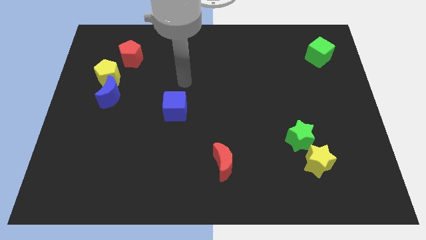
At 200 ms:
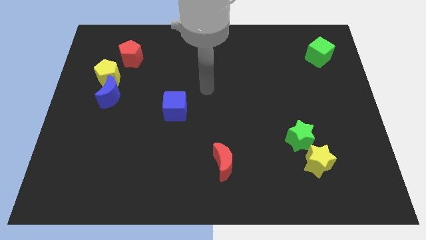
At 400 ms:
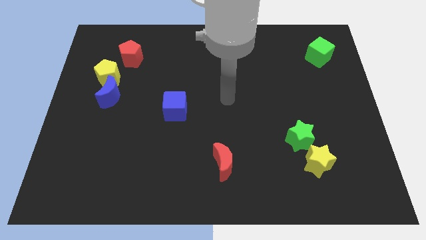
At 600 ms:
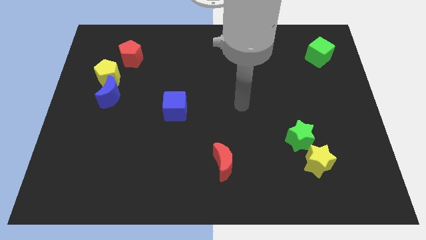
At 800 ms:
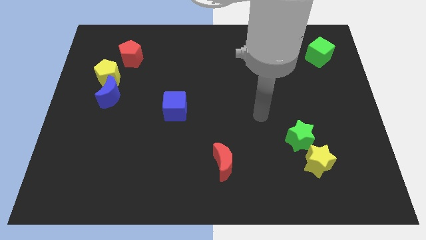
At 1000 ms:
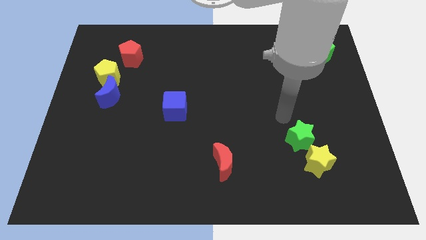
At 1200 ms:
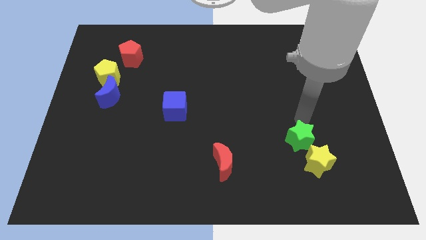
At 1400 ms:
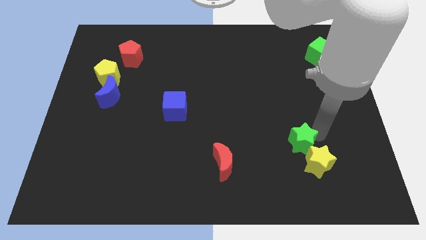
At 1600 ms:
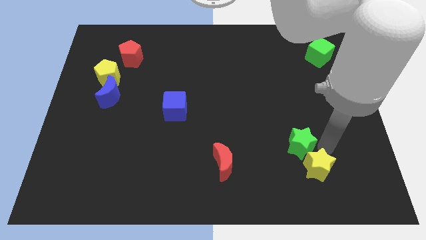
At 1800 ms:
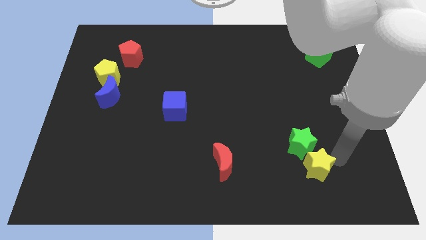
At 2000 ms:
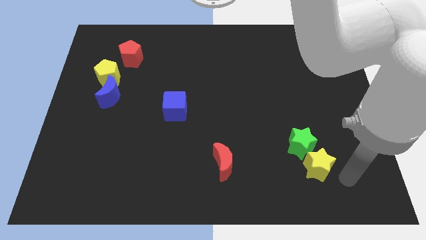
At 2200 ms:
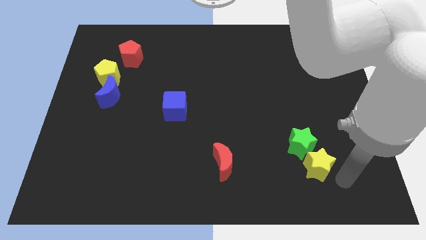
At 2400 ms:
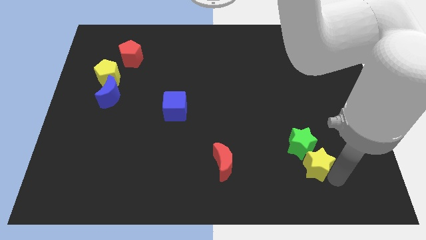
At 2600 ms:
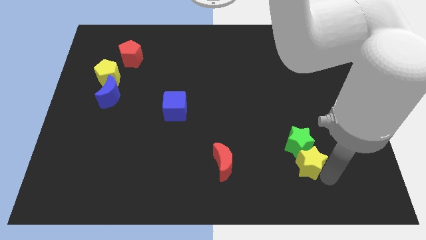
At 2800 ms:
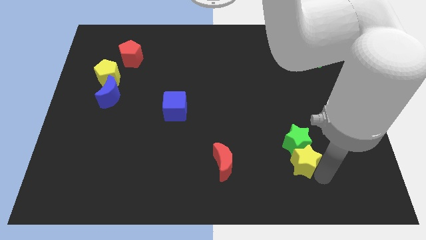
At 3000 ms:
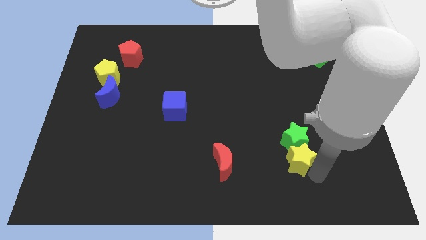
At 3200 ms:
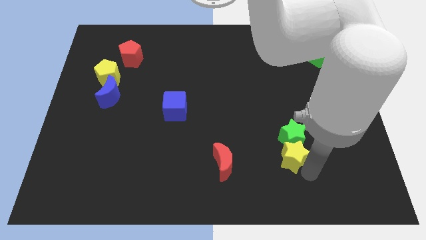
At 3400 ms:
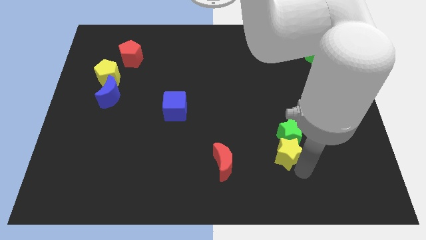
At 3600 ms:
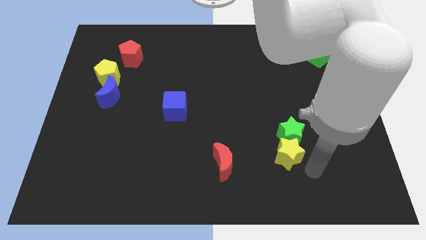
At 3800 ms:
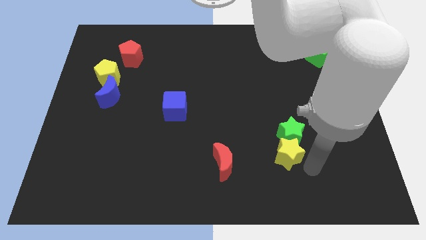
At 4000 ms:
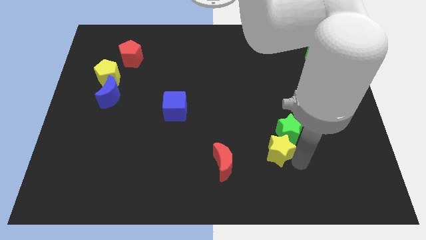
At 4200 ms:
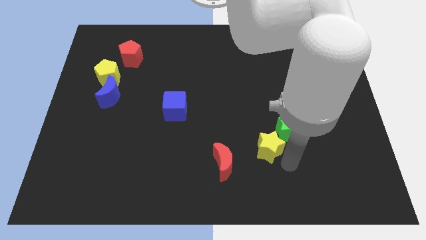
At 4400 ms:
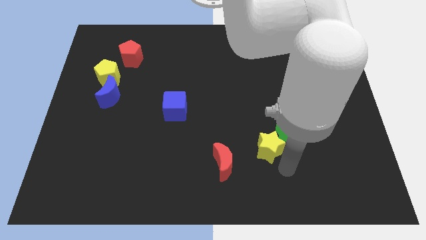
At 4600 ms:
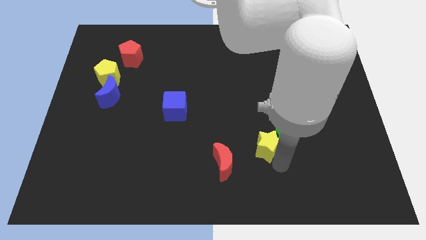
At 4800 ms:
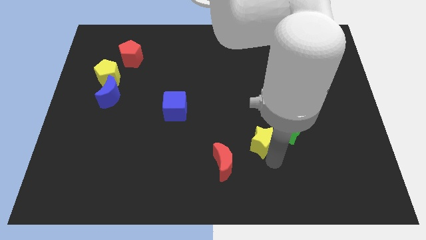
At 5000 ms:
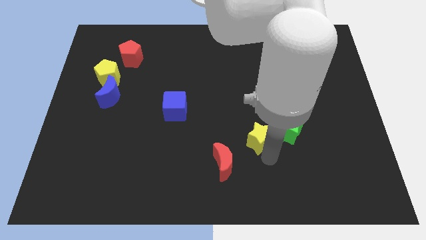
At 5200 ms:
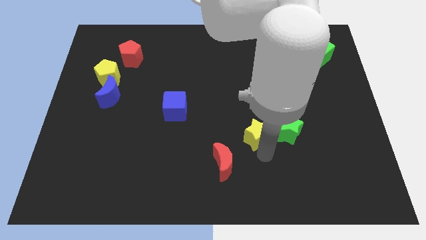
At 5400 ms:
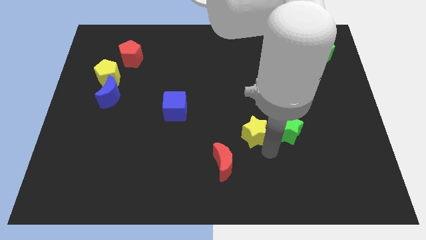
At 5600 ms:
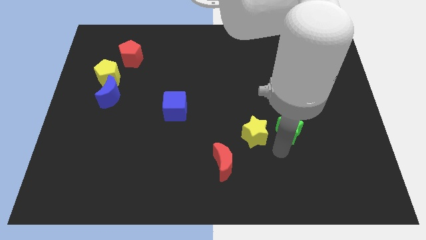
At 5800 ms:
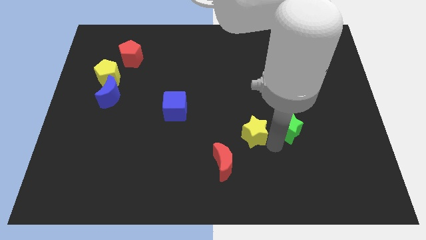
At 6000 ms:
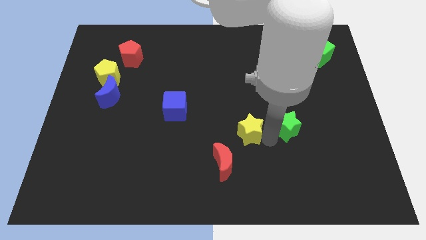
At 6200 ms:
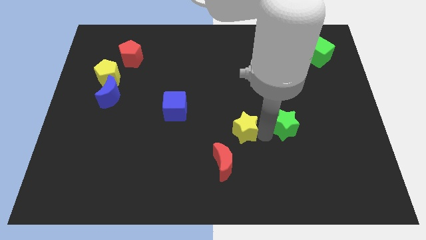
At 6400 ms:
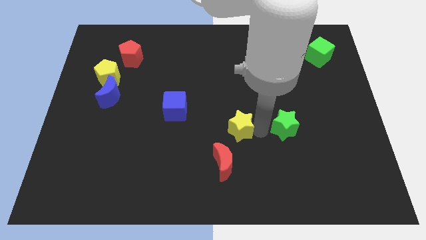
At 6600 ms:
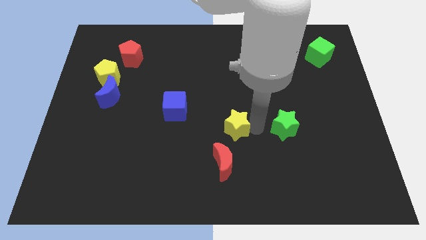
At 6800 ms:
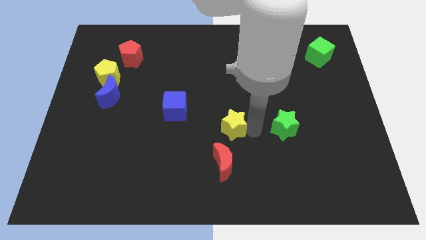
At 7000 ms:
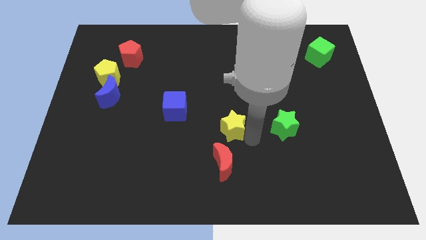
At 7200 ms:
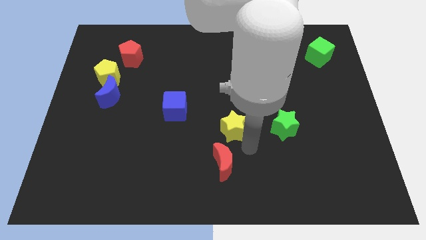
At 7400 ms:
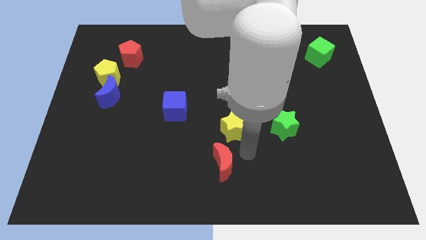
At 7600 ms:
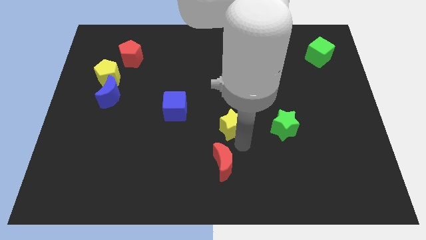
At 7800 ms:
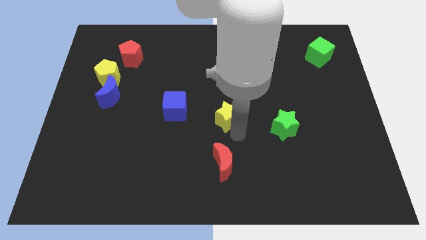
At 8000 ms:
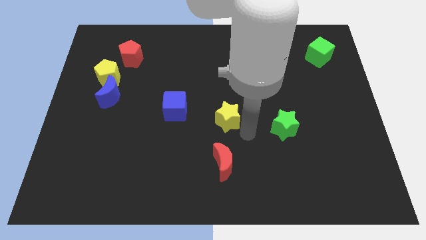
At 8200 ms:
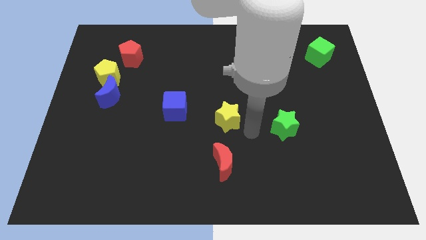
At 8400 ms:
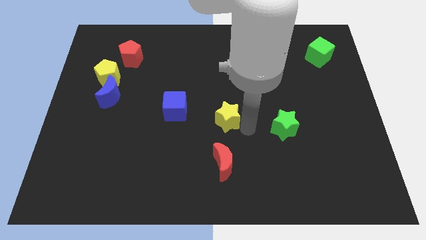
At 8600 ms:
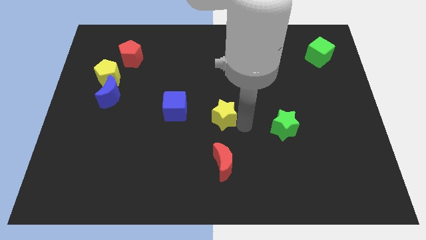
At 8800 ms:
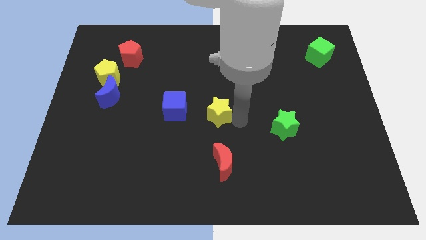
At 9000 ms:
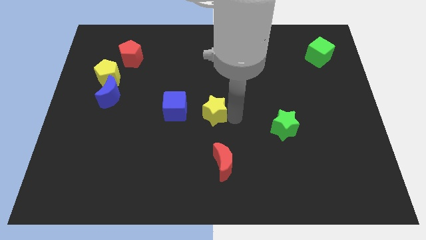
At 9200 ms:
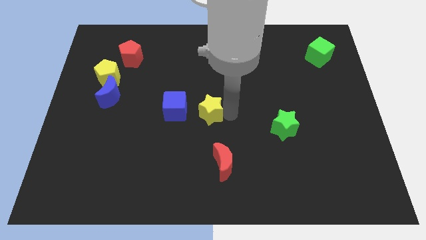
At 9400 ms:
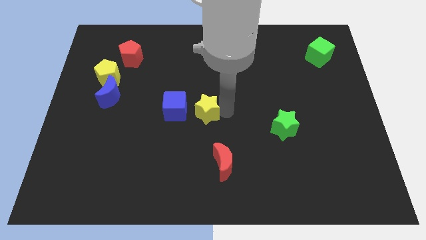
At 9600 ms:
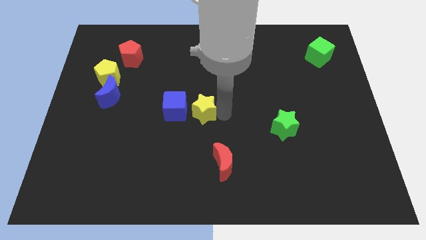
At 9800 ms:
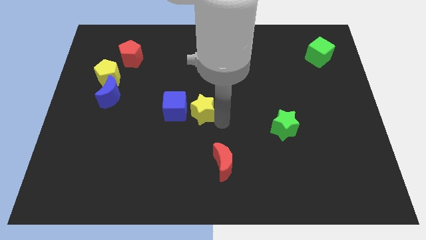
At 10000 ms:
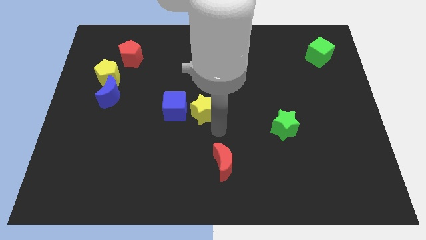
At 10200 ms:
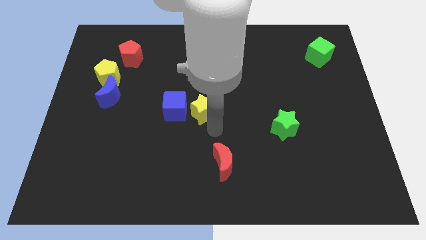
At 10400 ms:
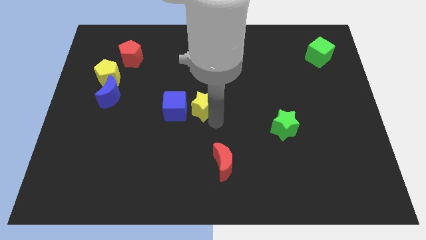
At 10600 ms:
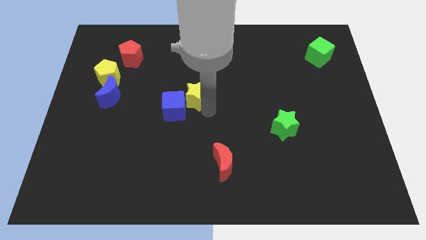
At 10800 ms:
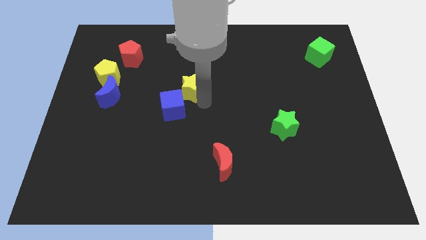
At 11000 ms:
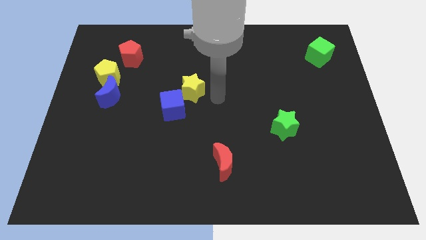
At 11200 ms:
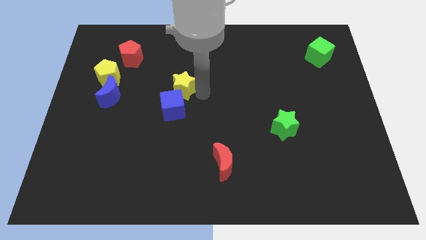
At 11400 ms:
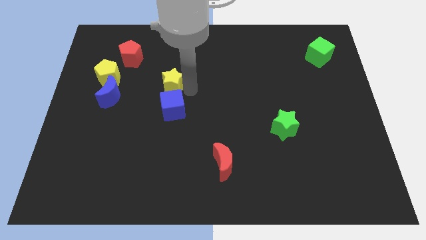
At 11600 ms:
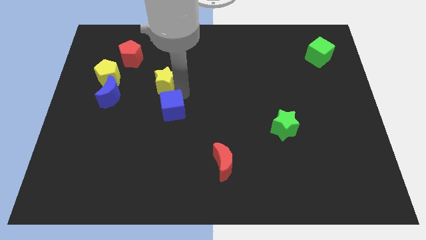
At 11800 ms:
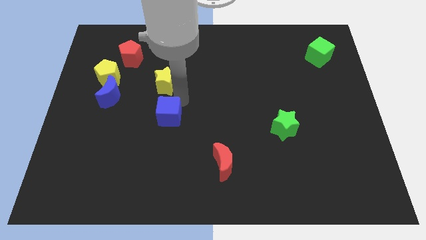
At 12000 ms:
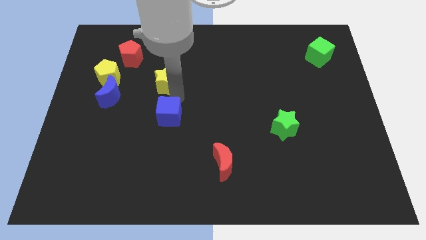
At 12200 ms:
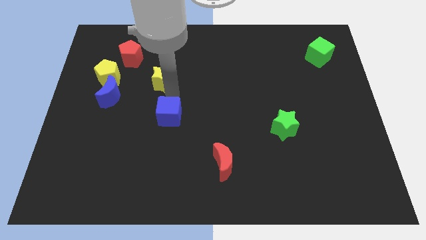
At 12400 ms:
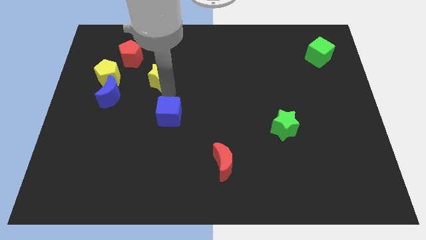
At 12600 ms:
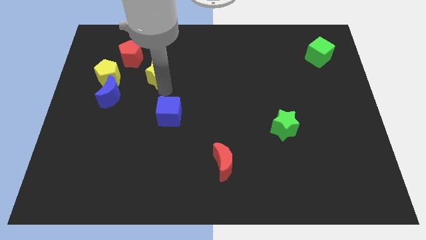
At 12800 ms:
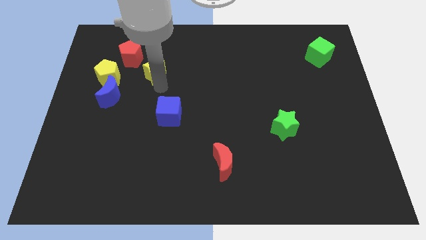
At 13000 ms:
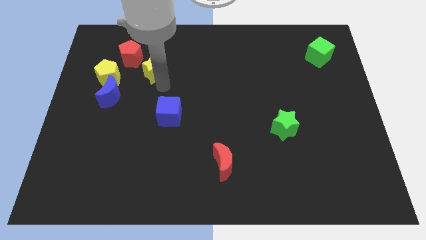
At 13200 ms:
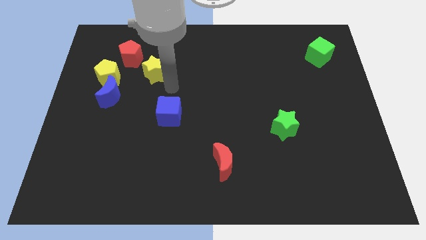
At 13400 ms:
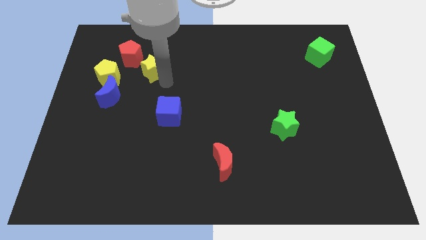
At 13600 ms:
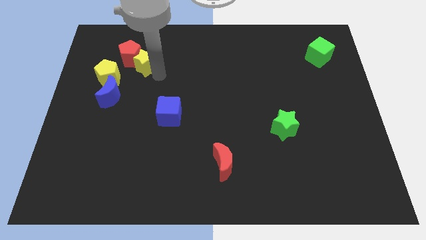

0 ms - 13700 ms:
put the yellow star to the red pentagon

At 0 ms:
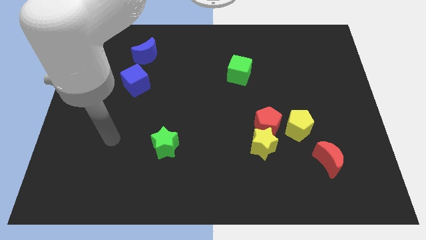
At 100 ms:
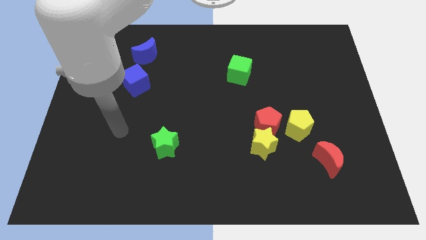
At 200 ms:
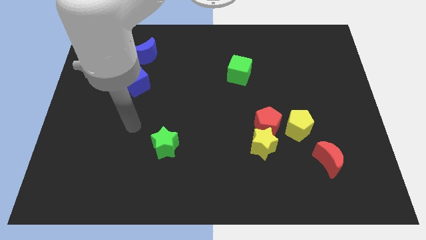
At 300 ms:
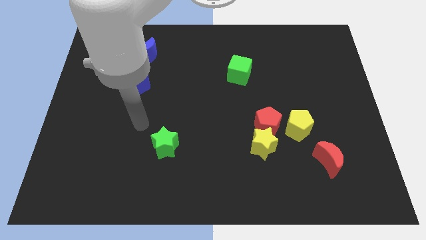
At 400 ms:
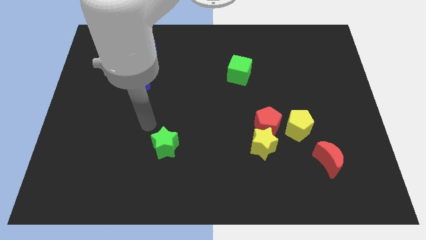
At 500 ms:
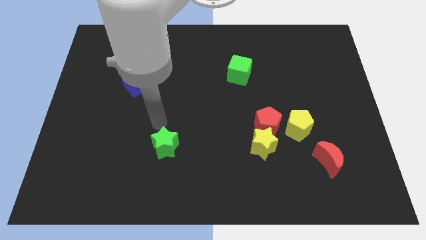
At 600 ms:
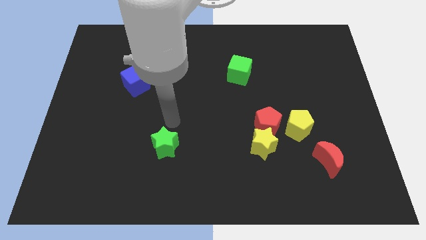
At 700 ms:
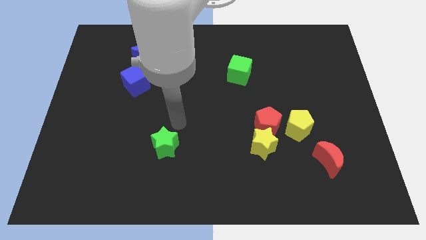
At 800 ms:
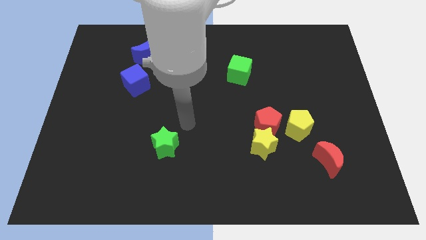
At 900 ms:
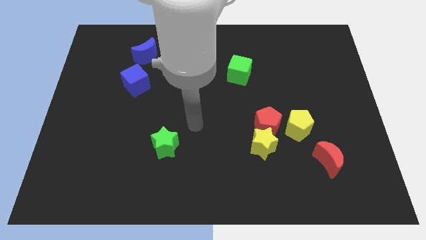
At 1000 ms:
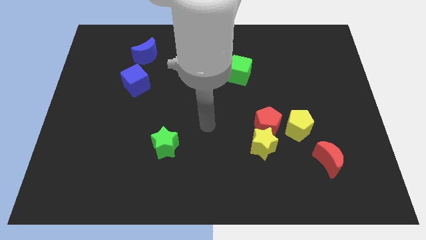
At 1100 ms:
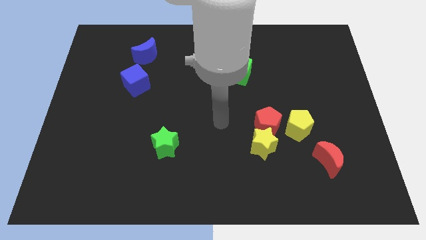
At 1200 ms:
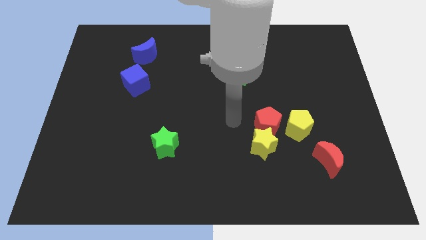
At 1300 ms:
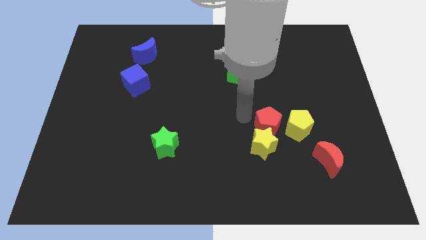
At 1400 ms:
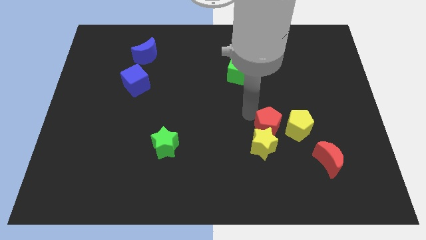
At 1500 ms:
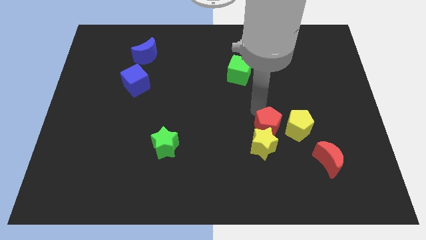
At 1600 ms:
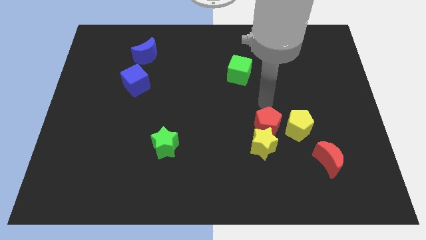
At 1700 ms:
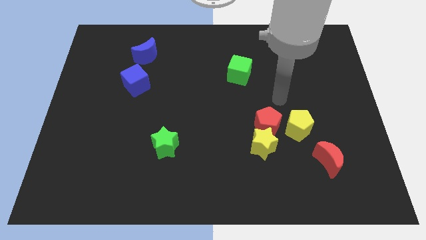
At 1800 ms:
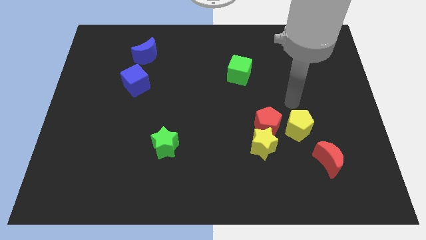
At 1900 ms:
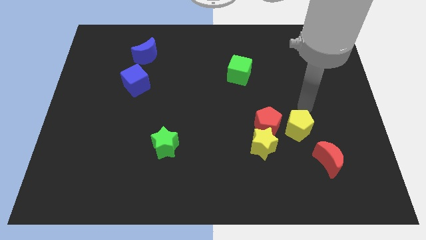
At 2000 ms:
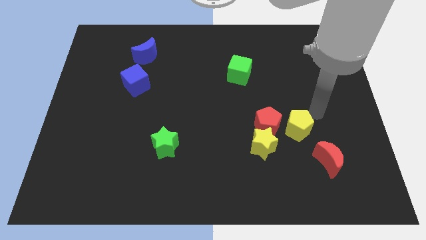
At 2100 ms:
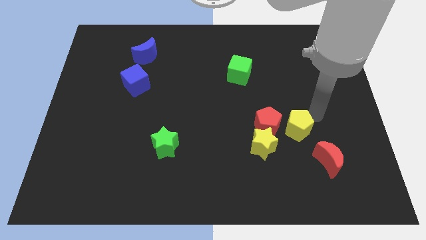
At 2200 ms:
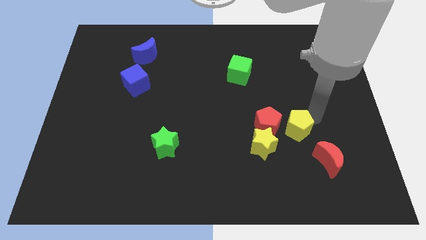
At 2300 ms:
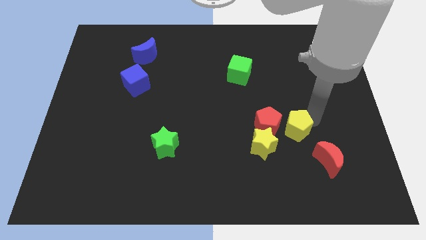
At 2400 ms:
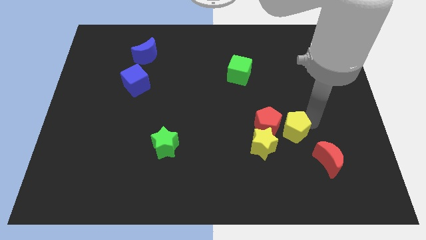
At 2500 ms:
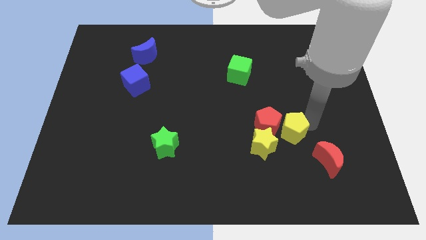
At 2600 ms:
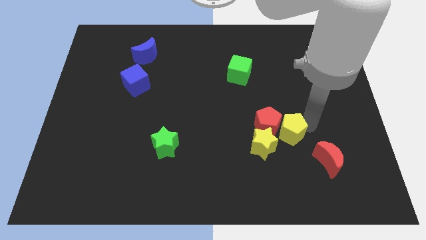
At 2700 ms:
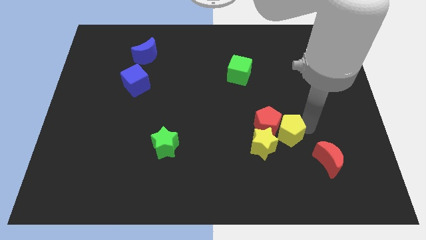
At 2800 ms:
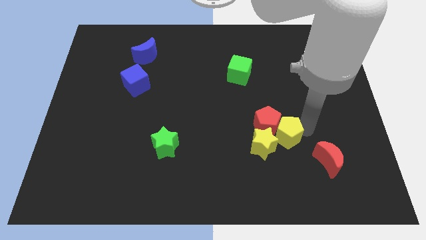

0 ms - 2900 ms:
put the yellow pentagon to the yellow star
